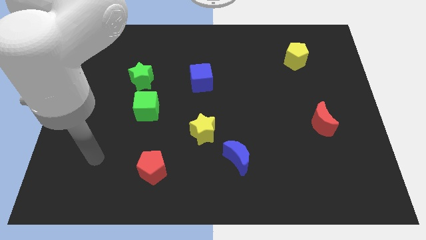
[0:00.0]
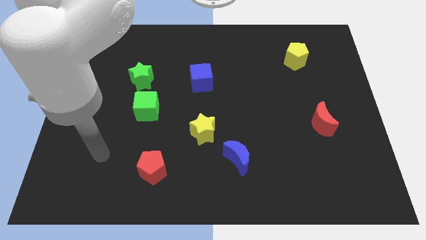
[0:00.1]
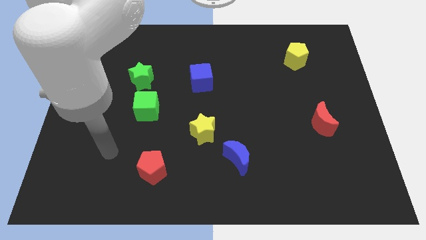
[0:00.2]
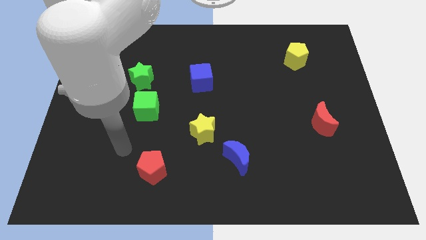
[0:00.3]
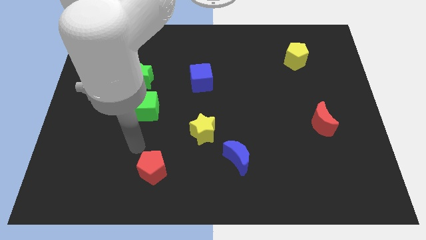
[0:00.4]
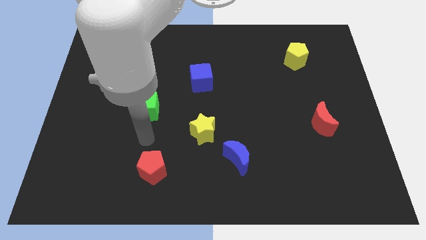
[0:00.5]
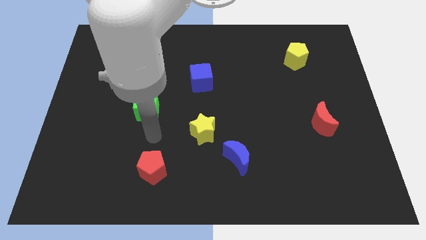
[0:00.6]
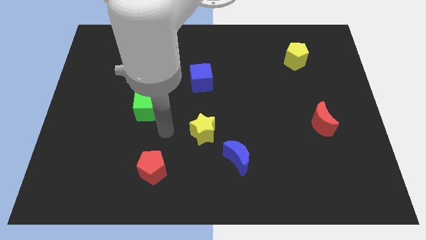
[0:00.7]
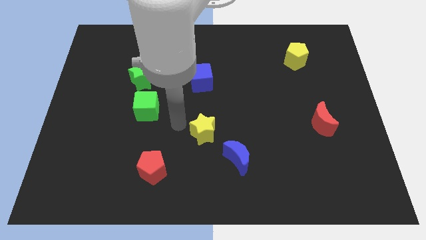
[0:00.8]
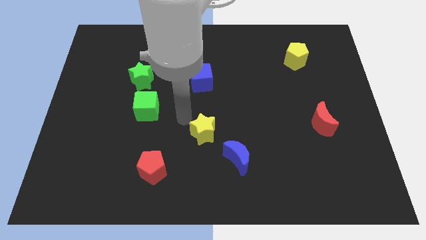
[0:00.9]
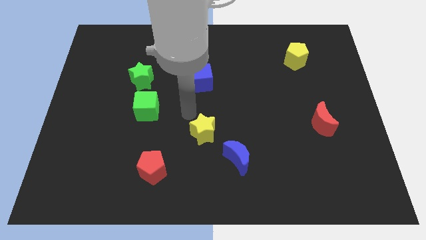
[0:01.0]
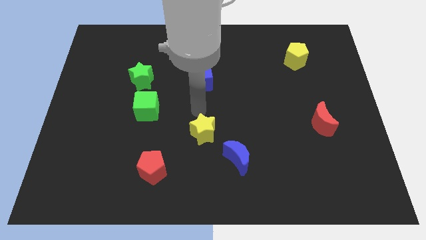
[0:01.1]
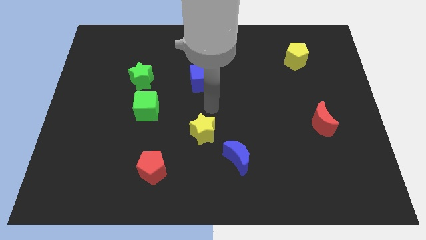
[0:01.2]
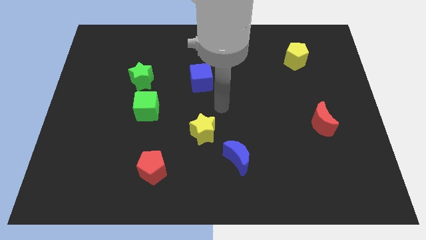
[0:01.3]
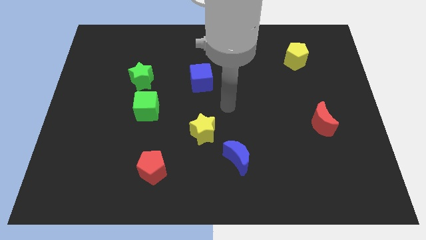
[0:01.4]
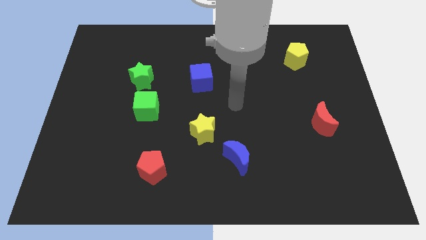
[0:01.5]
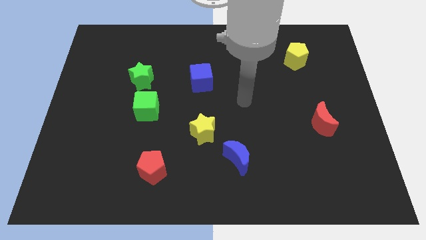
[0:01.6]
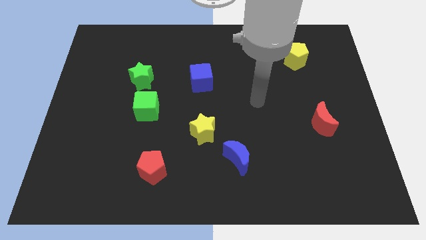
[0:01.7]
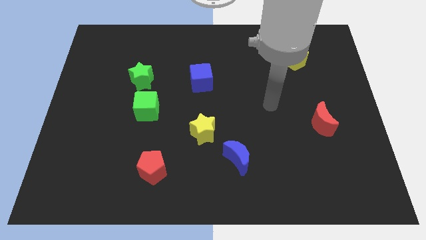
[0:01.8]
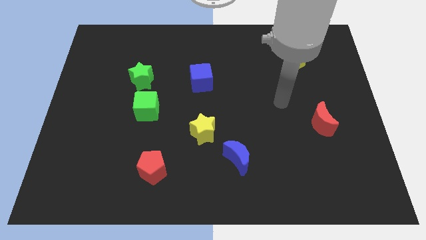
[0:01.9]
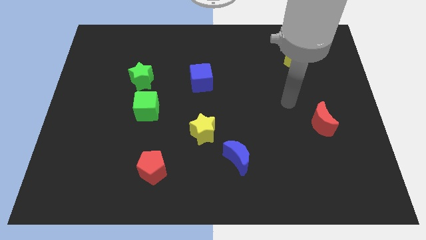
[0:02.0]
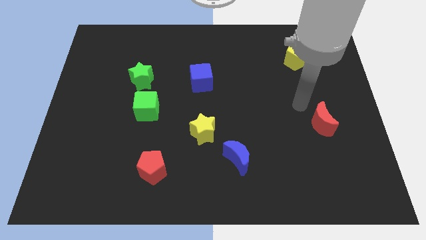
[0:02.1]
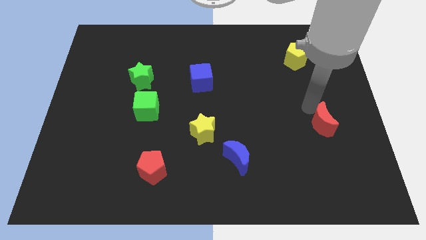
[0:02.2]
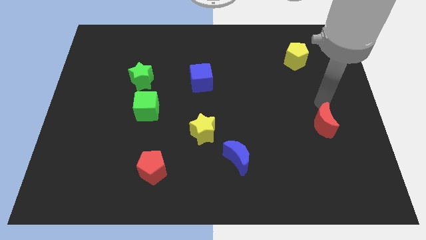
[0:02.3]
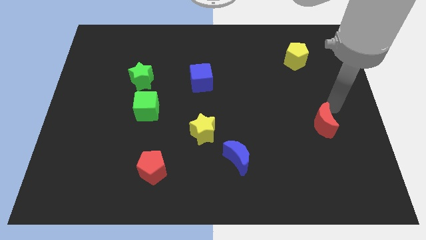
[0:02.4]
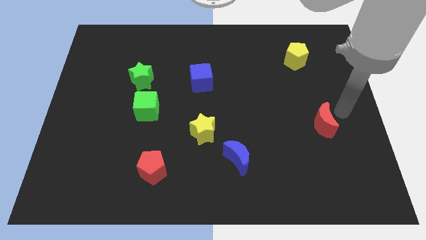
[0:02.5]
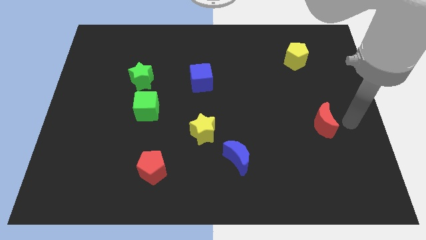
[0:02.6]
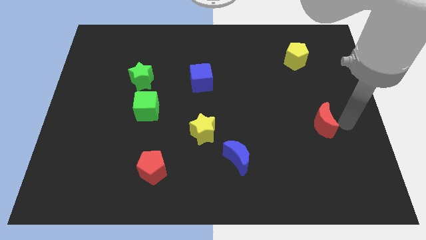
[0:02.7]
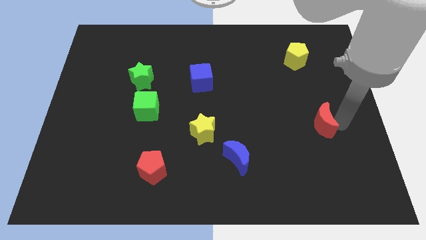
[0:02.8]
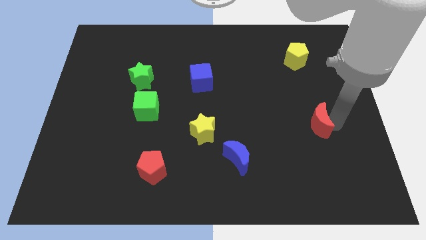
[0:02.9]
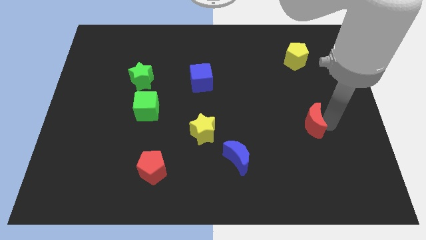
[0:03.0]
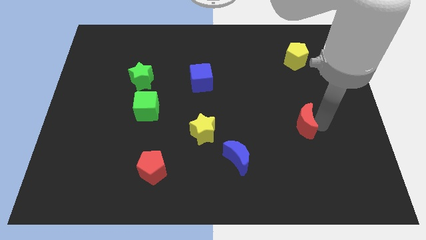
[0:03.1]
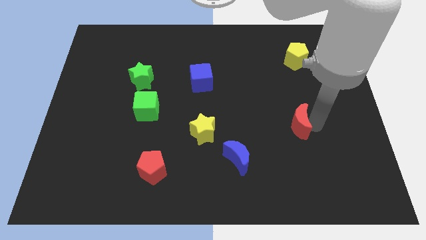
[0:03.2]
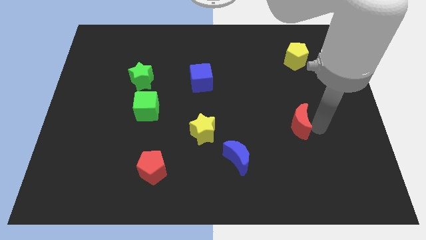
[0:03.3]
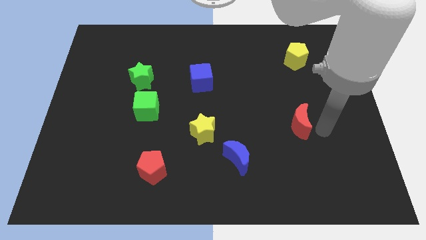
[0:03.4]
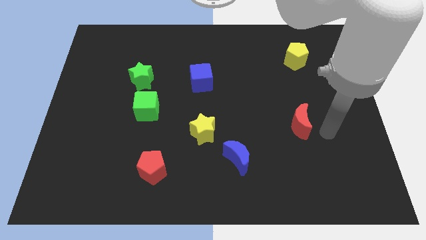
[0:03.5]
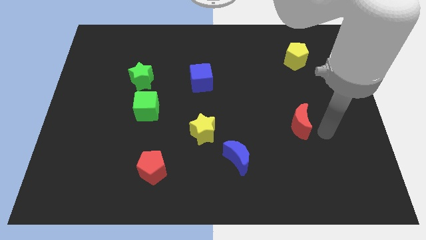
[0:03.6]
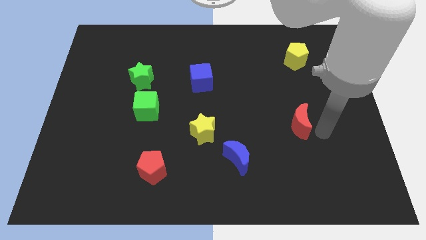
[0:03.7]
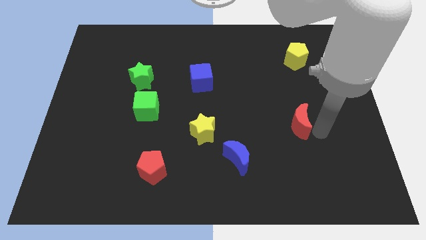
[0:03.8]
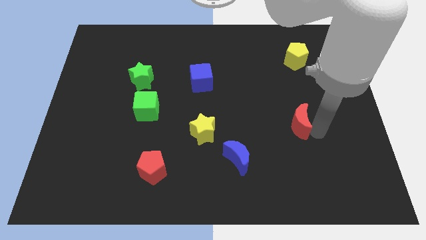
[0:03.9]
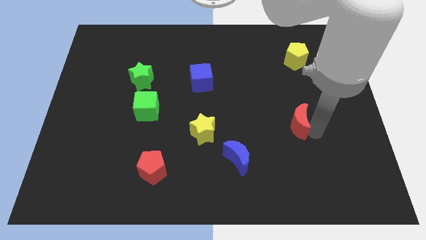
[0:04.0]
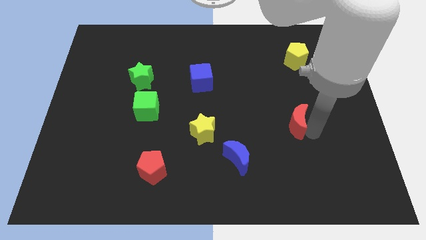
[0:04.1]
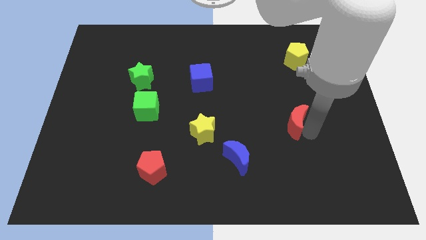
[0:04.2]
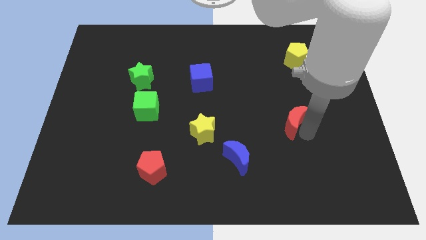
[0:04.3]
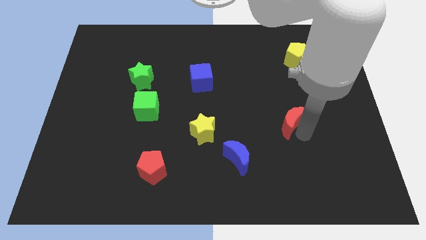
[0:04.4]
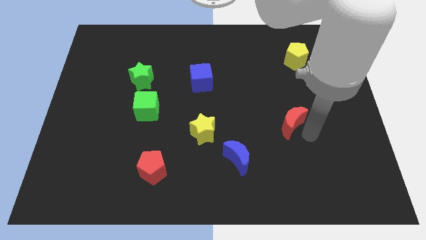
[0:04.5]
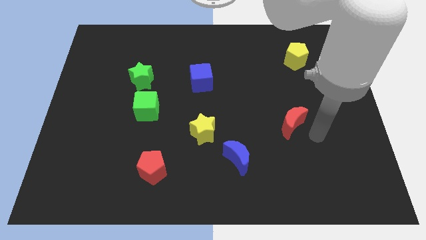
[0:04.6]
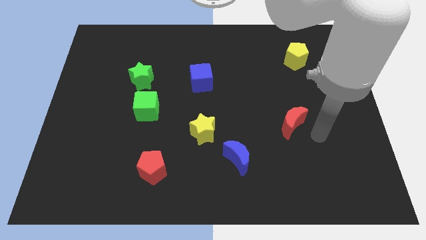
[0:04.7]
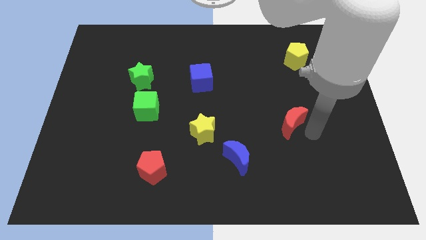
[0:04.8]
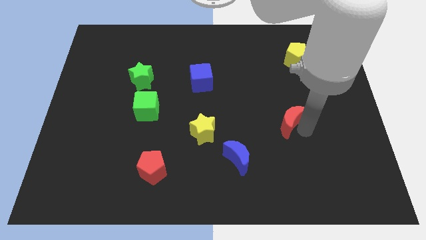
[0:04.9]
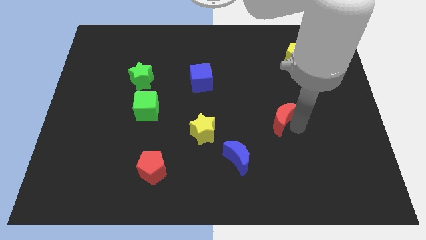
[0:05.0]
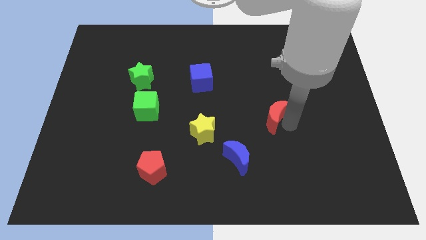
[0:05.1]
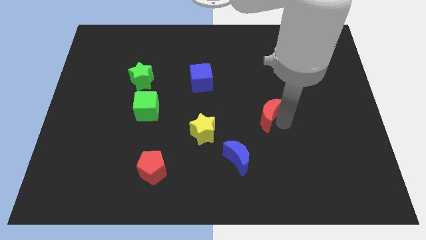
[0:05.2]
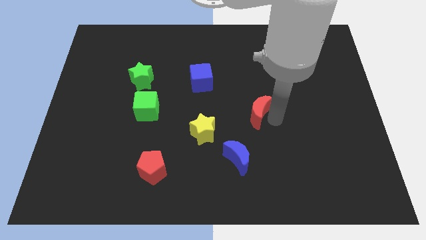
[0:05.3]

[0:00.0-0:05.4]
put the red moon to the middle
